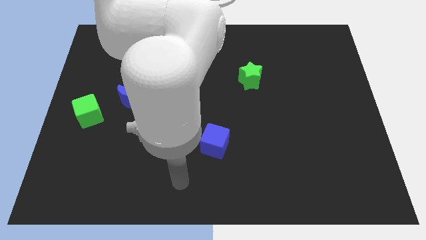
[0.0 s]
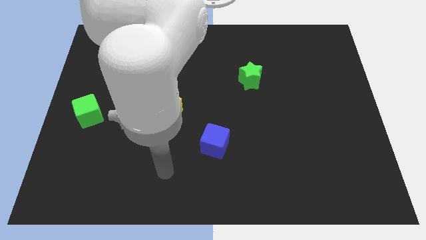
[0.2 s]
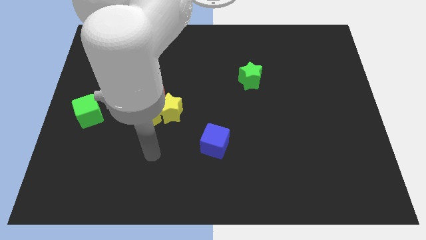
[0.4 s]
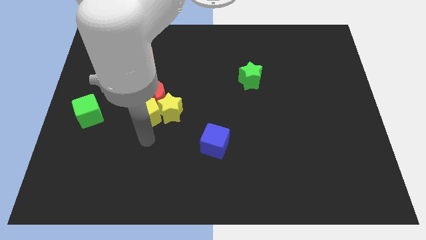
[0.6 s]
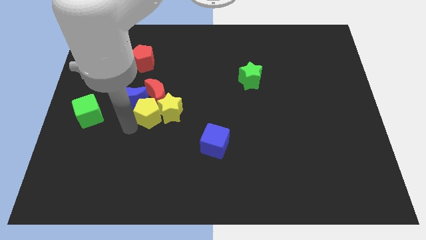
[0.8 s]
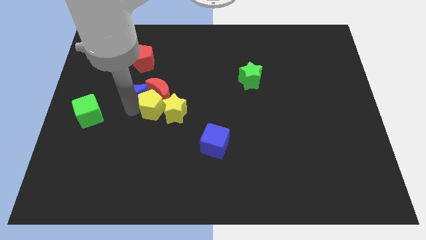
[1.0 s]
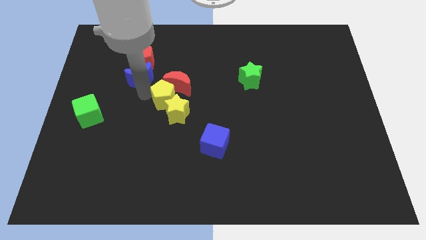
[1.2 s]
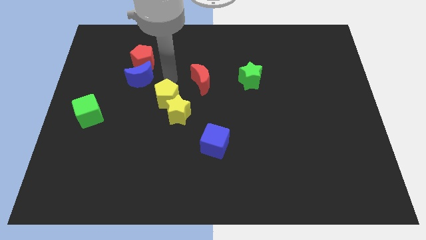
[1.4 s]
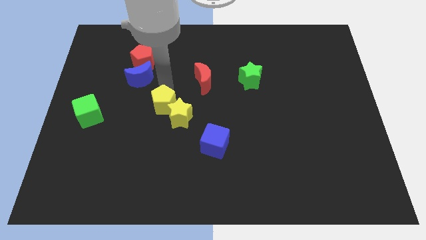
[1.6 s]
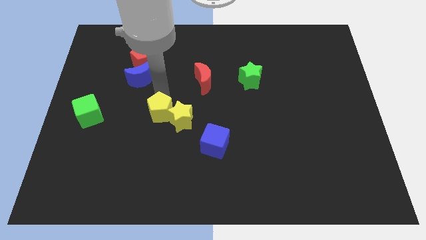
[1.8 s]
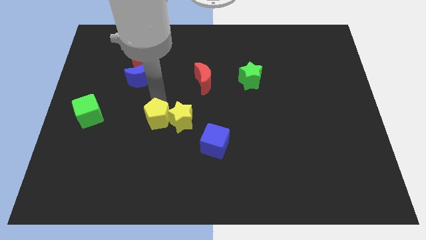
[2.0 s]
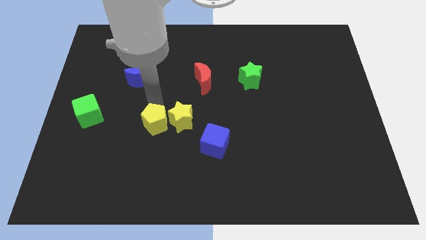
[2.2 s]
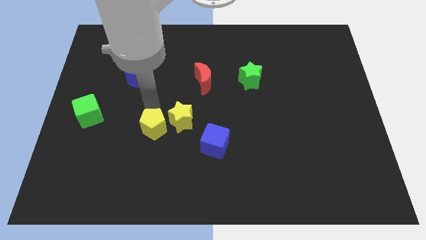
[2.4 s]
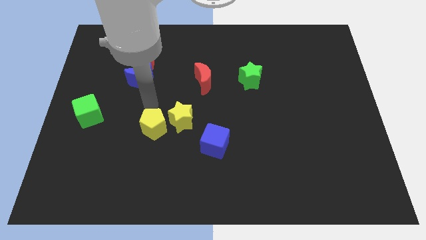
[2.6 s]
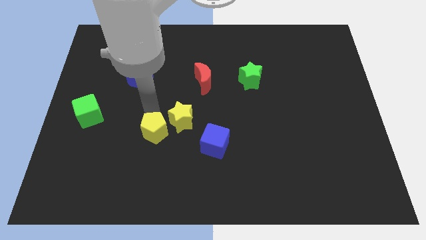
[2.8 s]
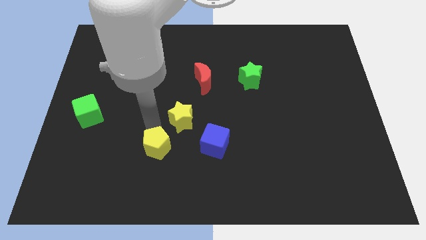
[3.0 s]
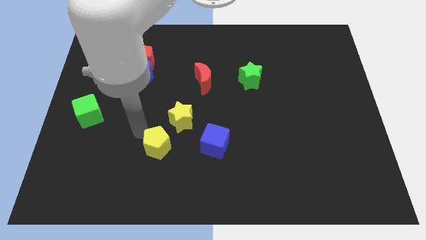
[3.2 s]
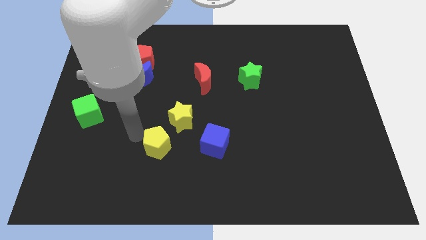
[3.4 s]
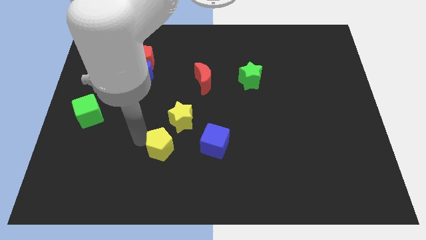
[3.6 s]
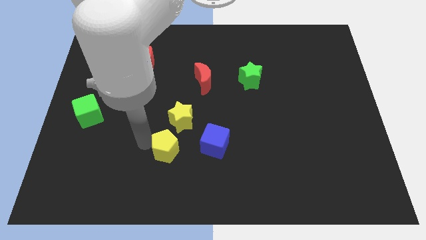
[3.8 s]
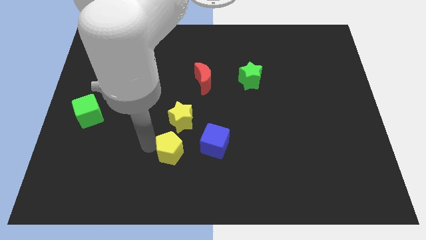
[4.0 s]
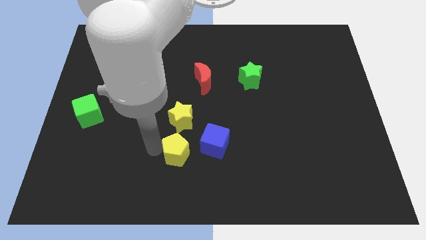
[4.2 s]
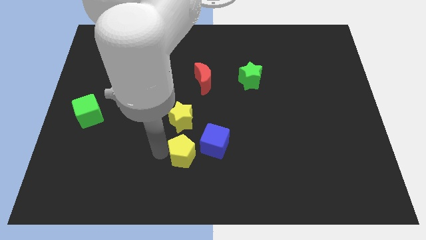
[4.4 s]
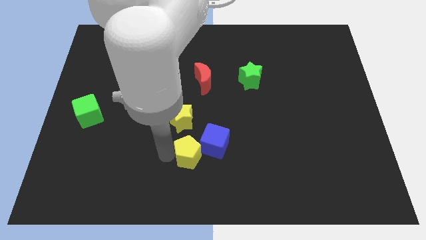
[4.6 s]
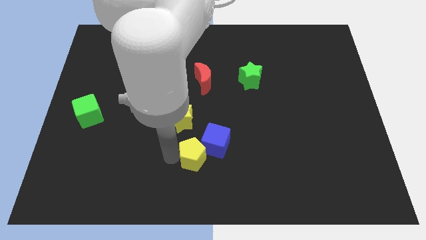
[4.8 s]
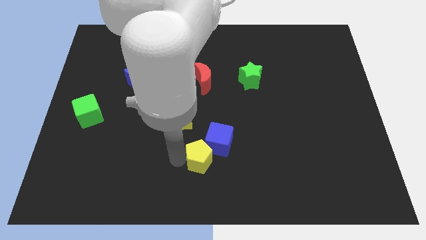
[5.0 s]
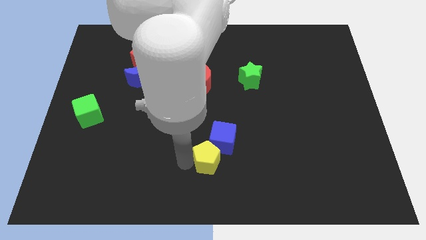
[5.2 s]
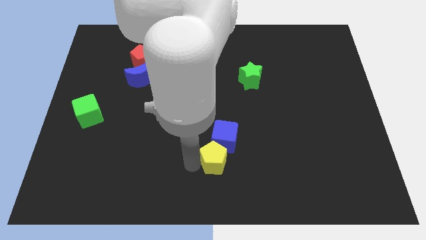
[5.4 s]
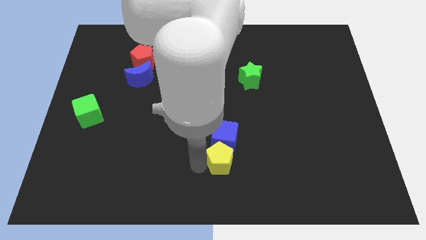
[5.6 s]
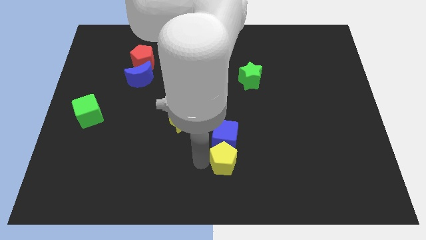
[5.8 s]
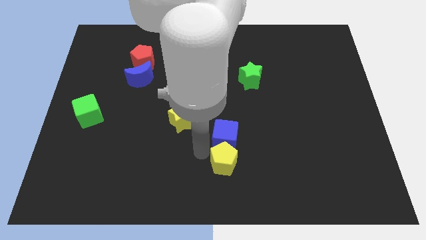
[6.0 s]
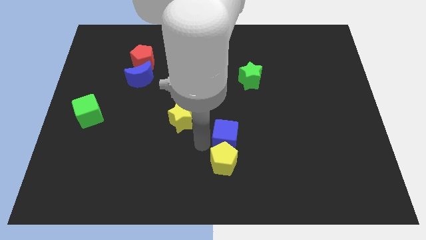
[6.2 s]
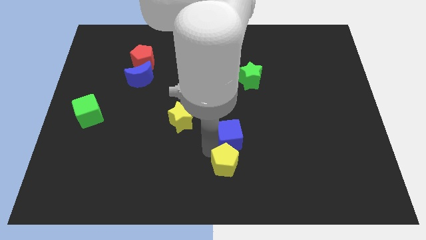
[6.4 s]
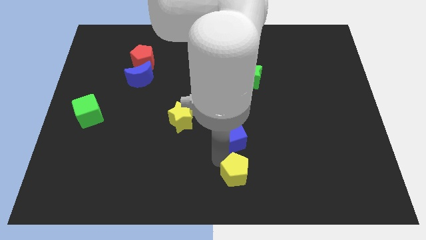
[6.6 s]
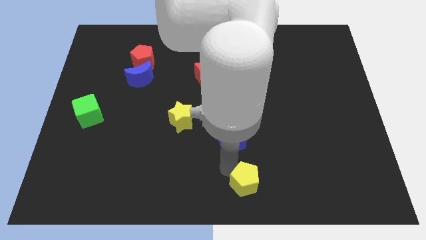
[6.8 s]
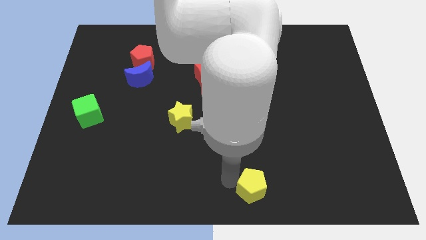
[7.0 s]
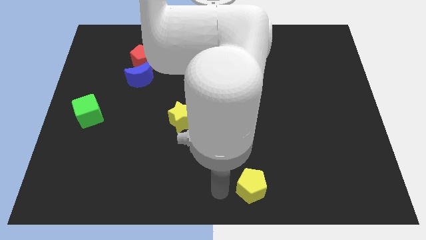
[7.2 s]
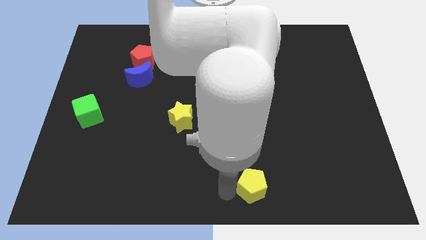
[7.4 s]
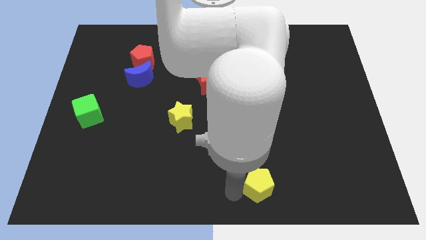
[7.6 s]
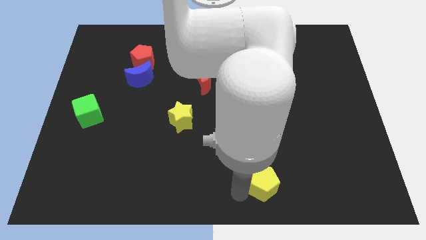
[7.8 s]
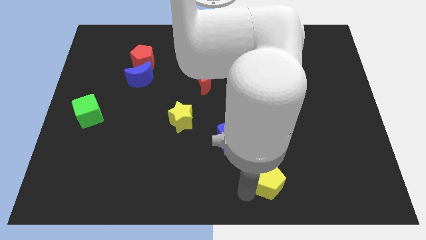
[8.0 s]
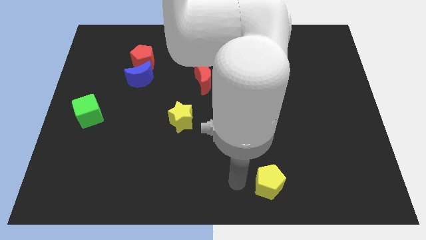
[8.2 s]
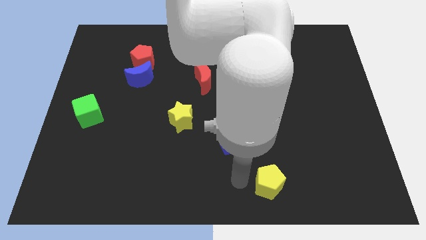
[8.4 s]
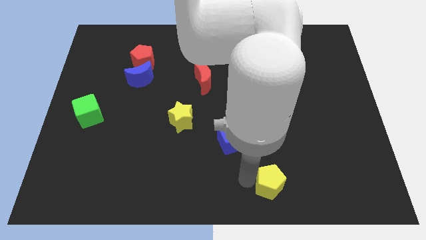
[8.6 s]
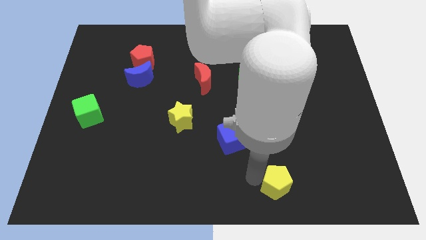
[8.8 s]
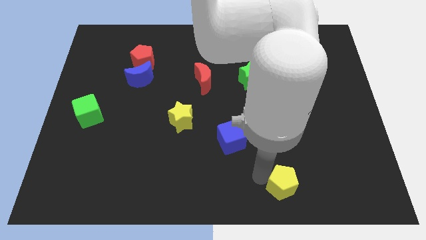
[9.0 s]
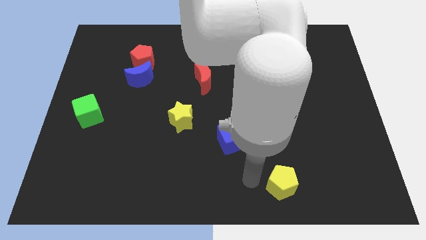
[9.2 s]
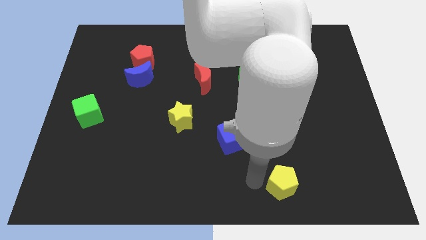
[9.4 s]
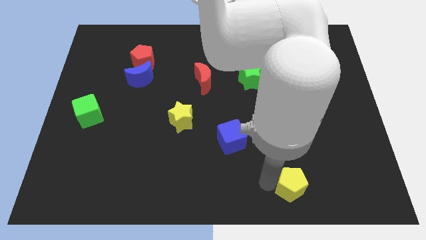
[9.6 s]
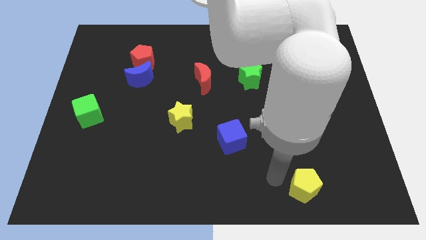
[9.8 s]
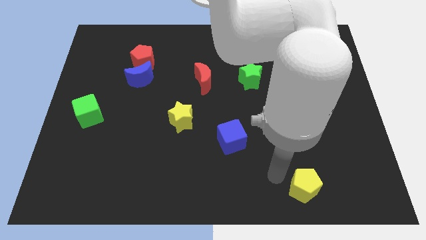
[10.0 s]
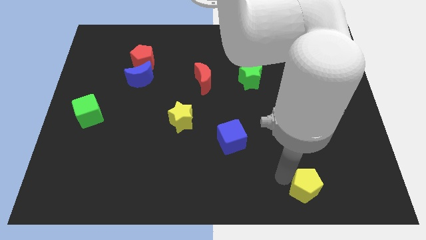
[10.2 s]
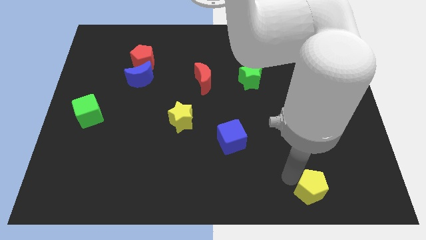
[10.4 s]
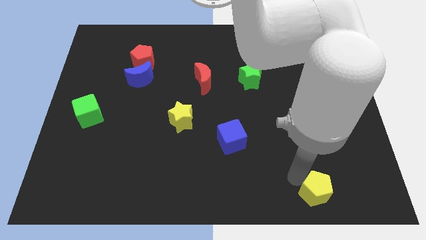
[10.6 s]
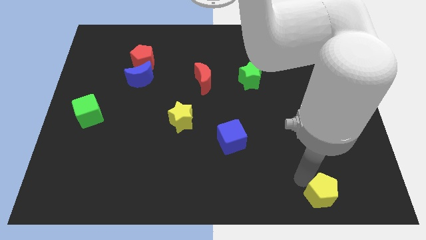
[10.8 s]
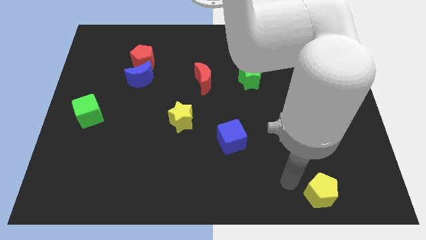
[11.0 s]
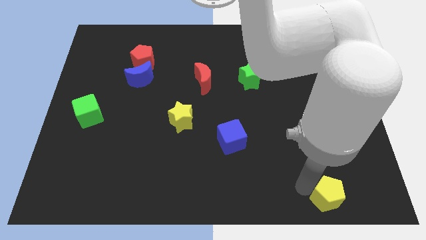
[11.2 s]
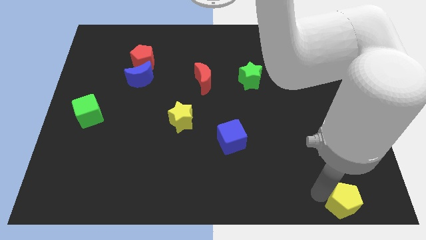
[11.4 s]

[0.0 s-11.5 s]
push the yellow pentagon to the bottom right
